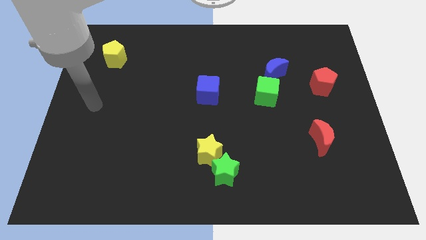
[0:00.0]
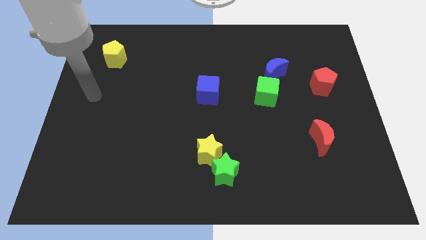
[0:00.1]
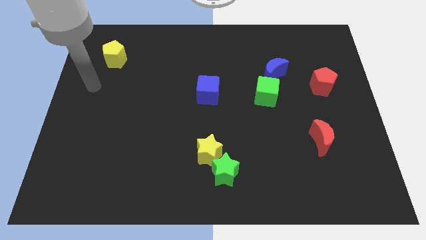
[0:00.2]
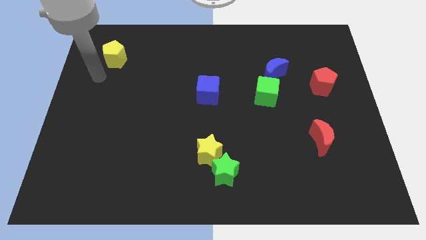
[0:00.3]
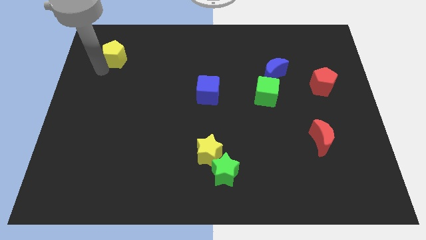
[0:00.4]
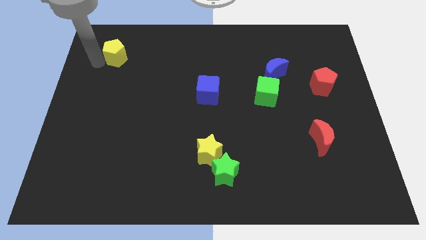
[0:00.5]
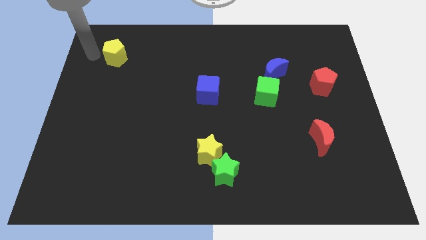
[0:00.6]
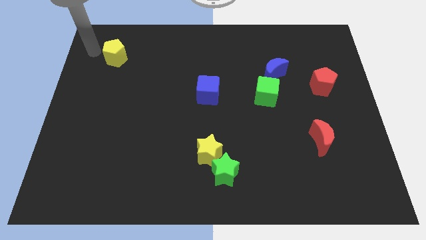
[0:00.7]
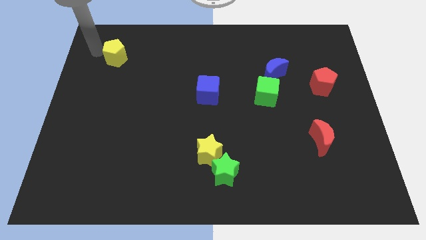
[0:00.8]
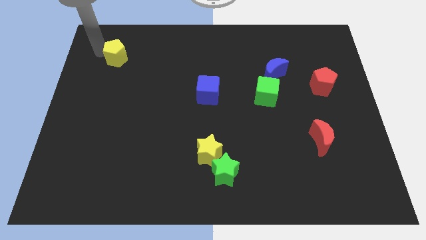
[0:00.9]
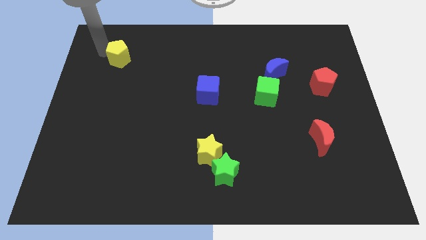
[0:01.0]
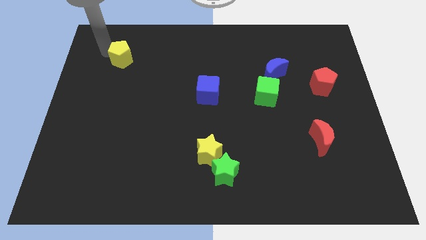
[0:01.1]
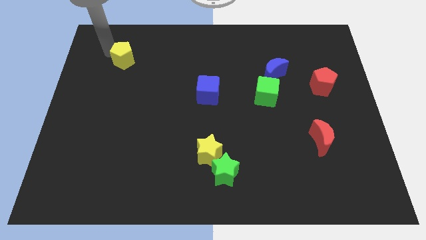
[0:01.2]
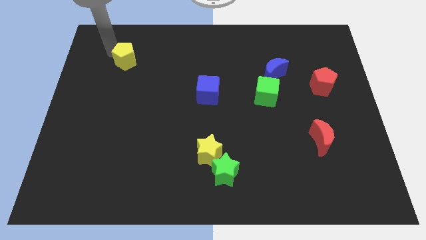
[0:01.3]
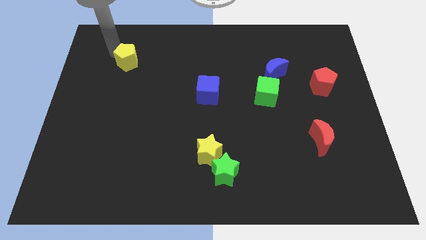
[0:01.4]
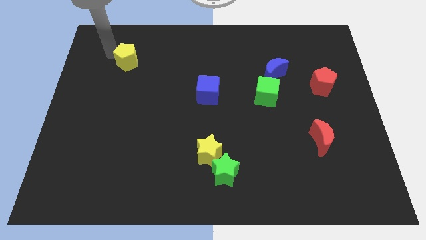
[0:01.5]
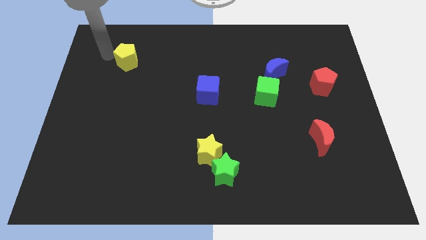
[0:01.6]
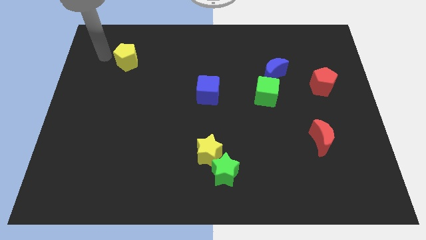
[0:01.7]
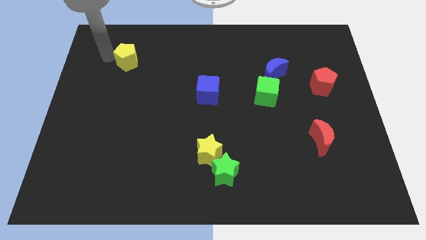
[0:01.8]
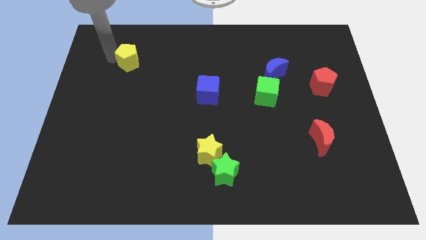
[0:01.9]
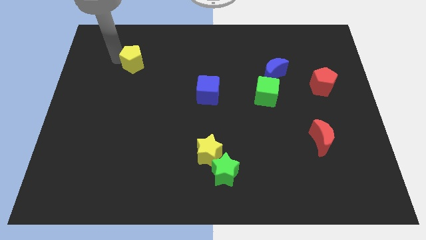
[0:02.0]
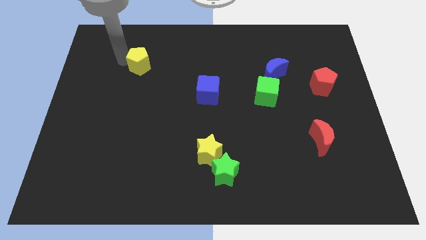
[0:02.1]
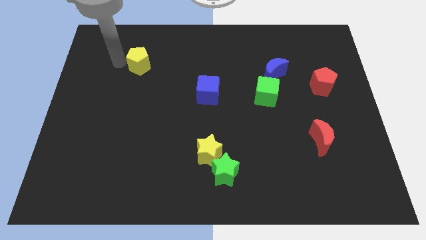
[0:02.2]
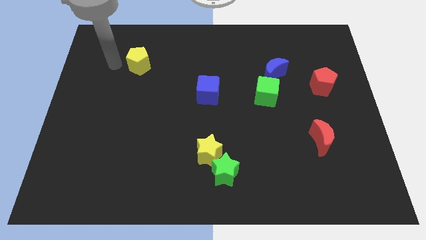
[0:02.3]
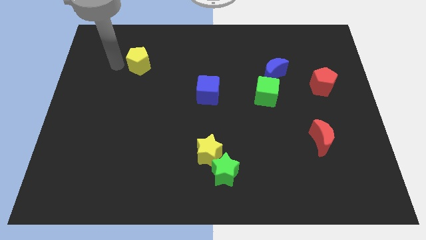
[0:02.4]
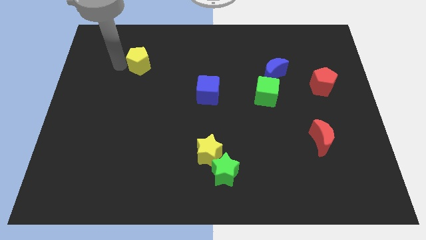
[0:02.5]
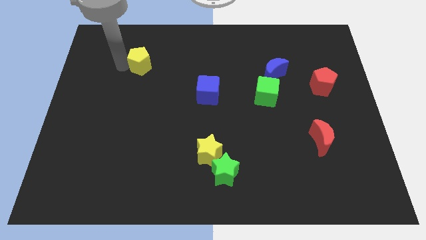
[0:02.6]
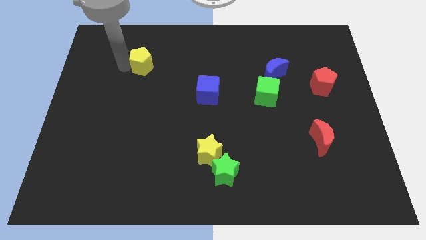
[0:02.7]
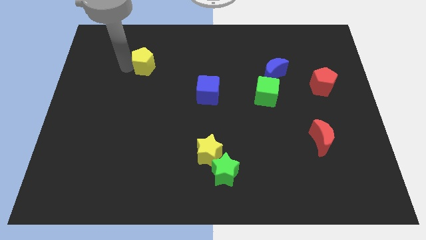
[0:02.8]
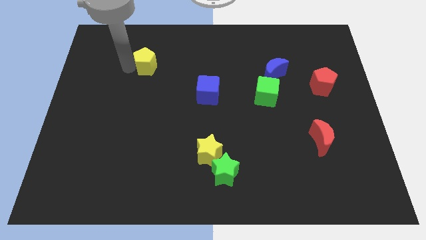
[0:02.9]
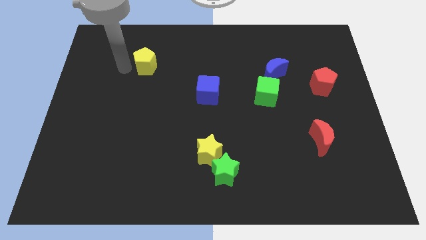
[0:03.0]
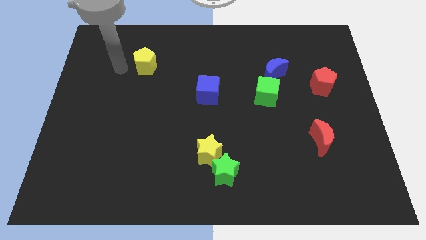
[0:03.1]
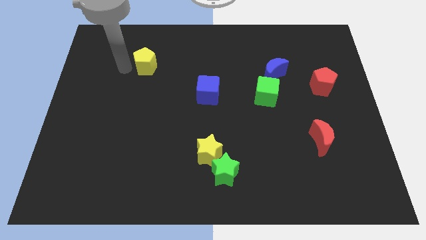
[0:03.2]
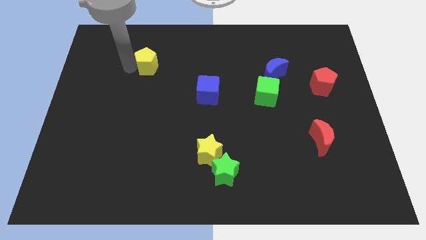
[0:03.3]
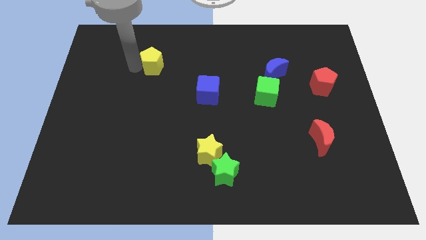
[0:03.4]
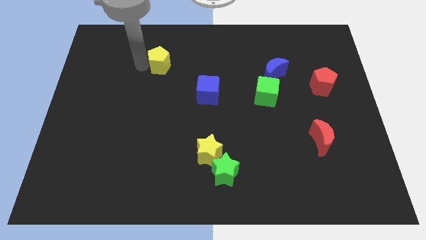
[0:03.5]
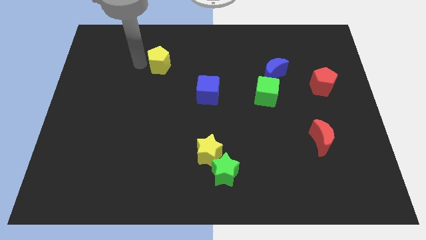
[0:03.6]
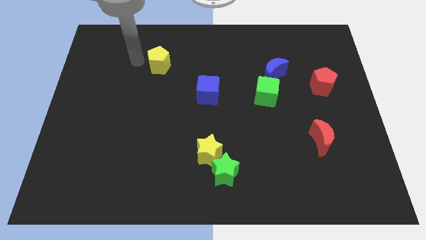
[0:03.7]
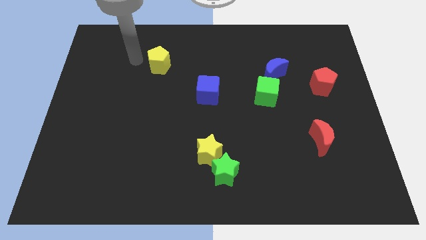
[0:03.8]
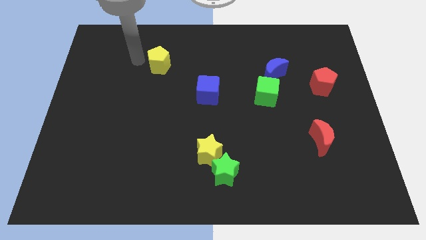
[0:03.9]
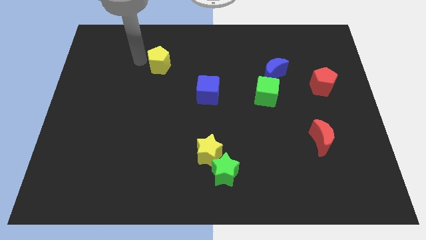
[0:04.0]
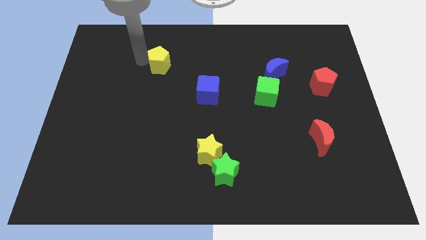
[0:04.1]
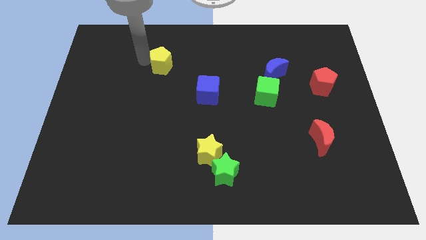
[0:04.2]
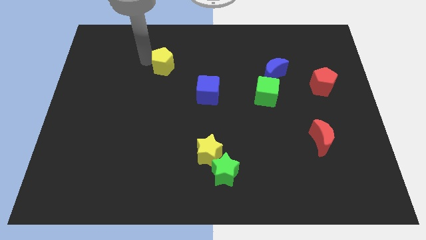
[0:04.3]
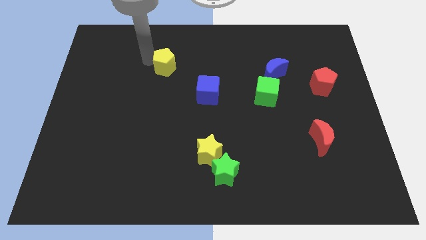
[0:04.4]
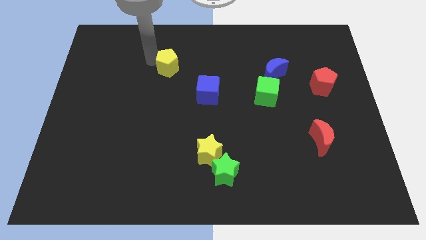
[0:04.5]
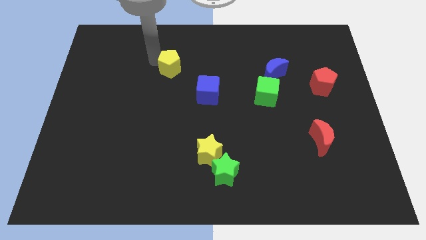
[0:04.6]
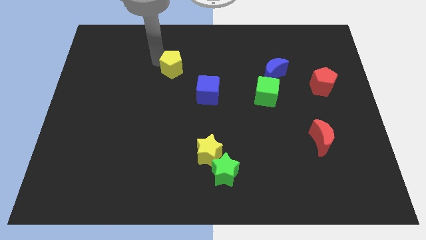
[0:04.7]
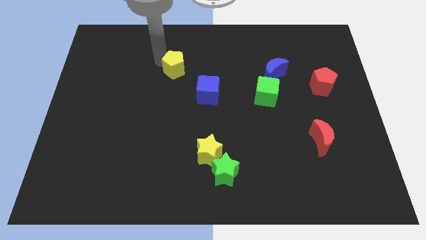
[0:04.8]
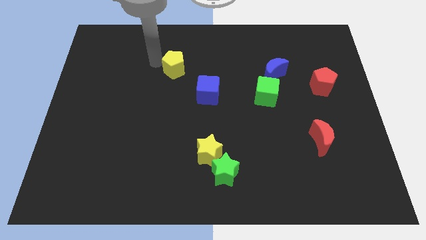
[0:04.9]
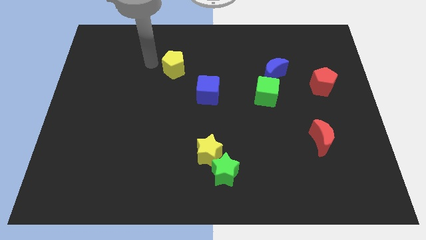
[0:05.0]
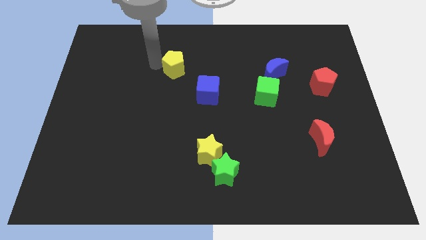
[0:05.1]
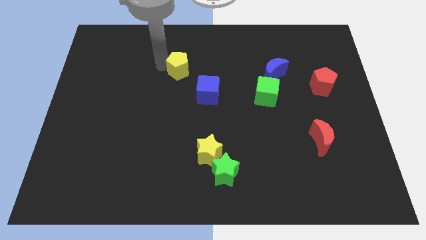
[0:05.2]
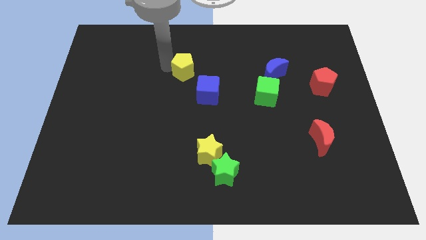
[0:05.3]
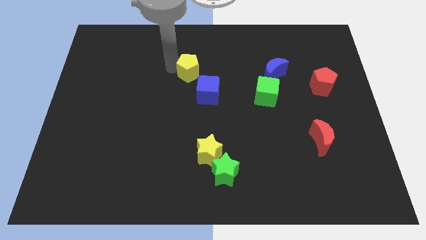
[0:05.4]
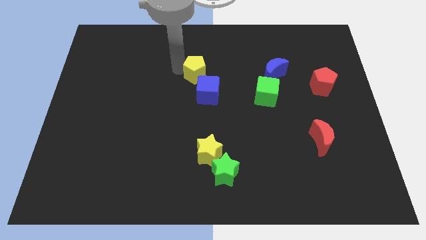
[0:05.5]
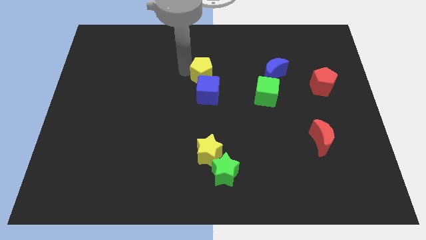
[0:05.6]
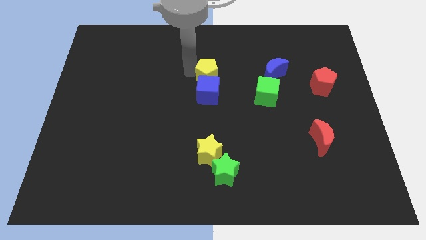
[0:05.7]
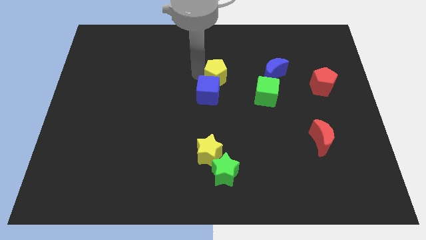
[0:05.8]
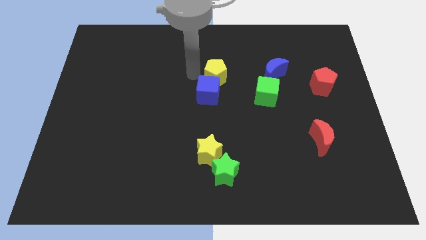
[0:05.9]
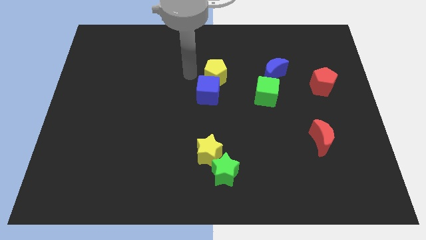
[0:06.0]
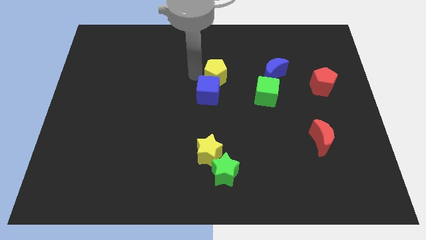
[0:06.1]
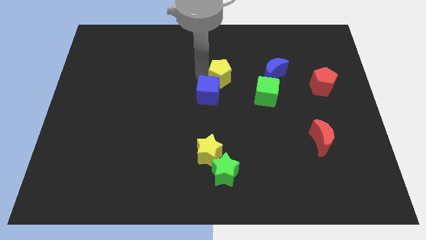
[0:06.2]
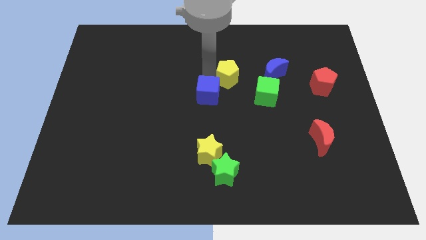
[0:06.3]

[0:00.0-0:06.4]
move the yellow pentagon diagonally up and to the left of the green cube
